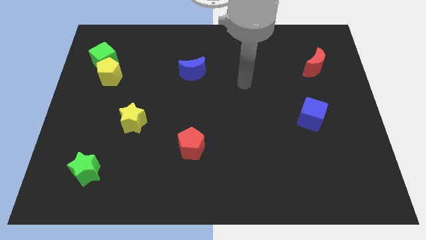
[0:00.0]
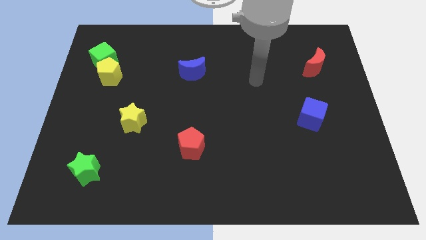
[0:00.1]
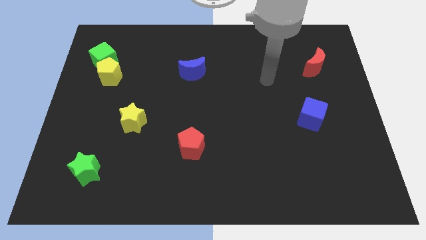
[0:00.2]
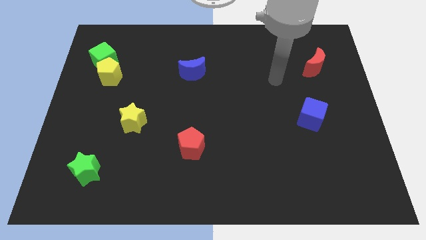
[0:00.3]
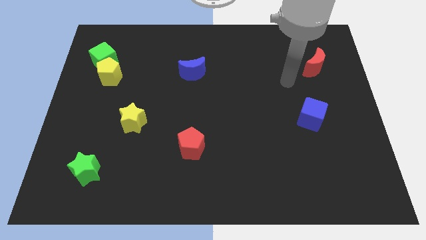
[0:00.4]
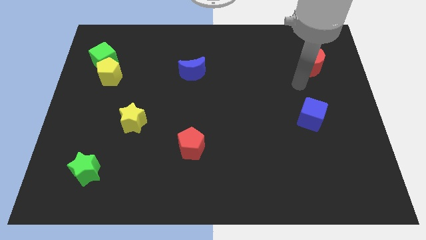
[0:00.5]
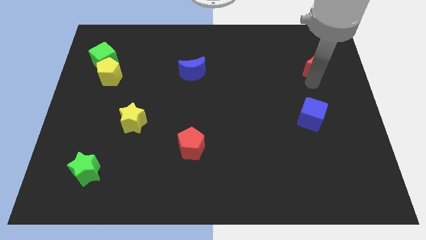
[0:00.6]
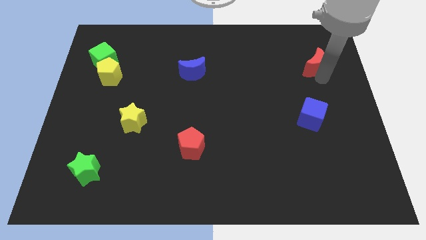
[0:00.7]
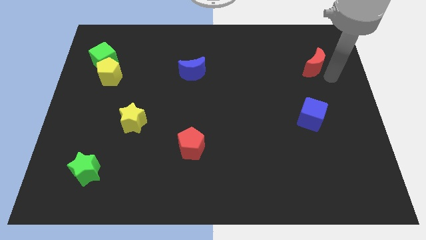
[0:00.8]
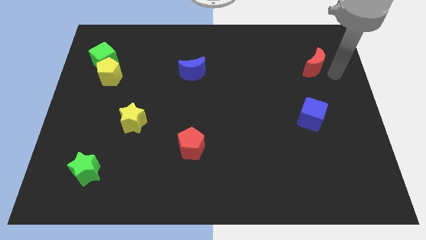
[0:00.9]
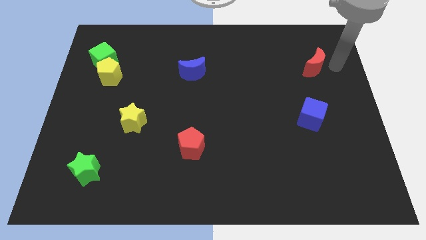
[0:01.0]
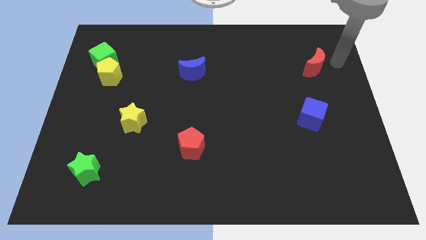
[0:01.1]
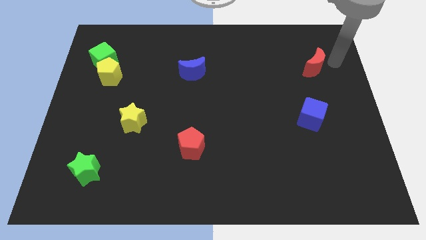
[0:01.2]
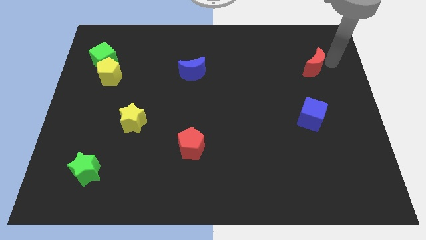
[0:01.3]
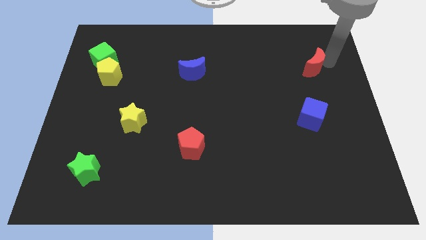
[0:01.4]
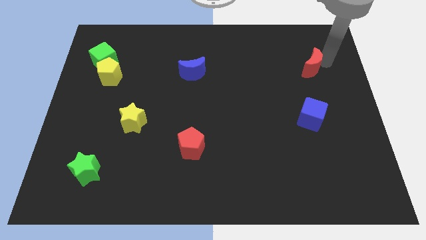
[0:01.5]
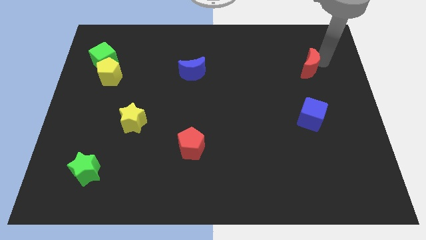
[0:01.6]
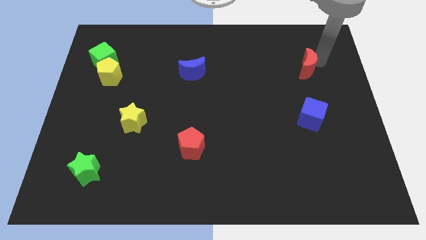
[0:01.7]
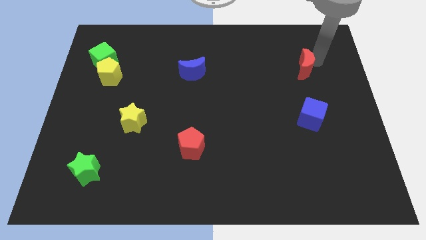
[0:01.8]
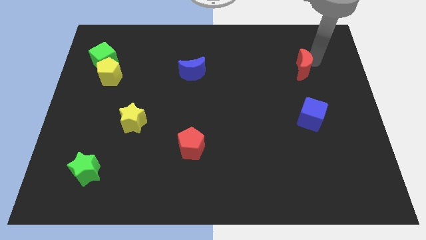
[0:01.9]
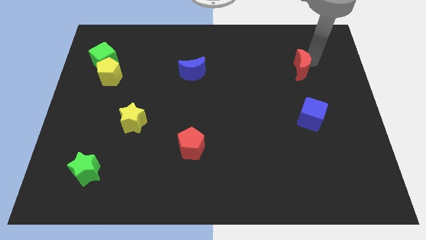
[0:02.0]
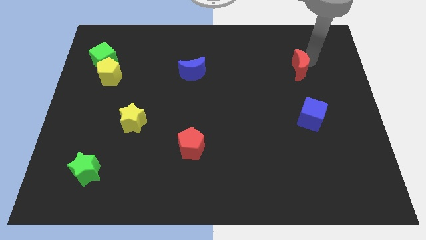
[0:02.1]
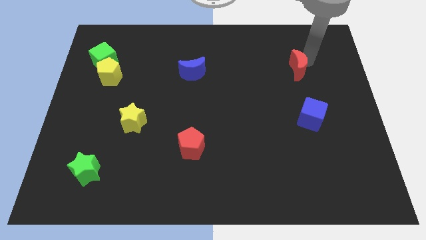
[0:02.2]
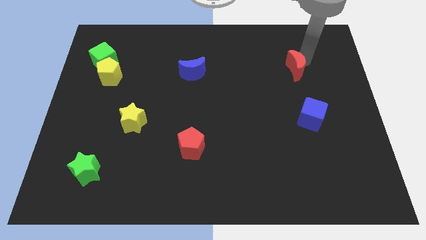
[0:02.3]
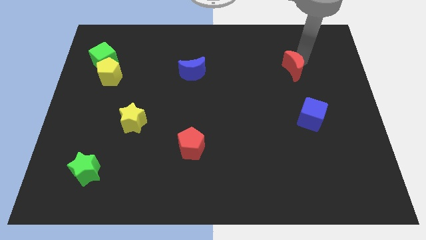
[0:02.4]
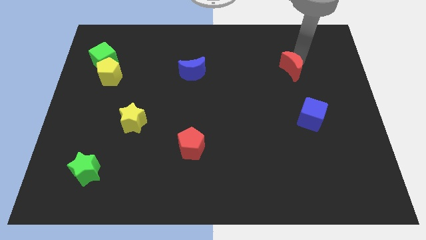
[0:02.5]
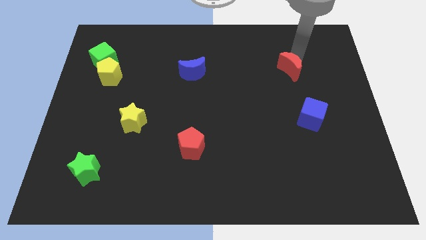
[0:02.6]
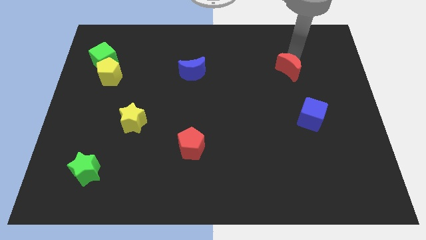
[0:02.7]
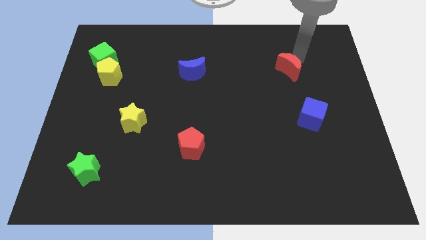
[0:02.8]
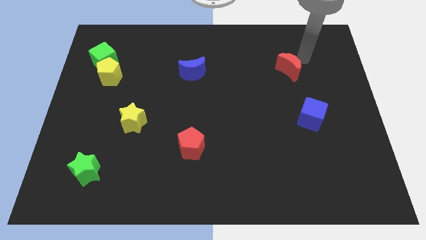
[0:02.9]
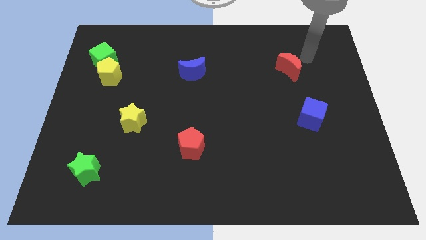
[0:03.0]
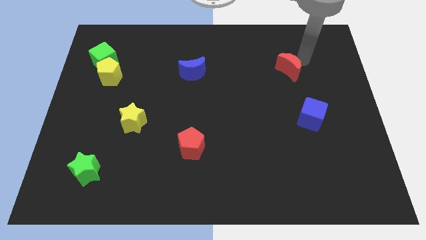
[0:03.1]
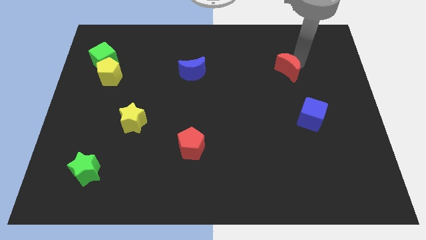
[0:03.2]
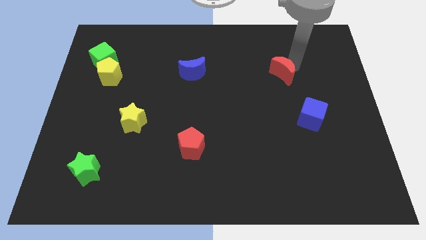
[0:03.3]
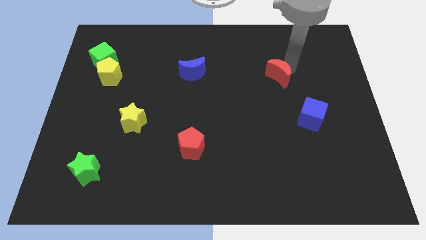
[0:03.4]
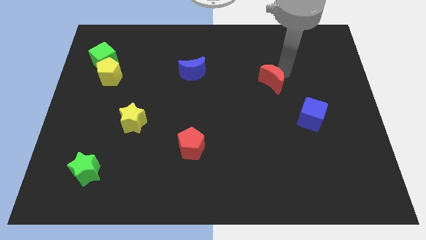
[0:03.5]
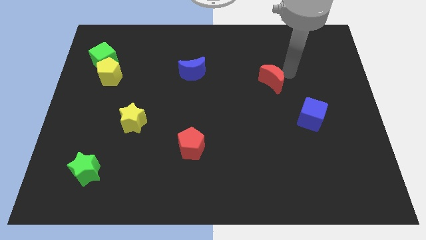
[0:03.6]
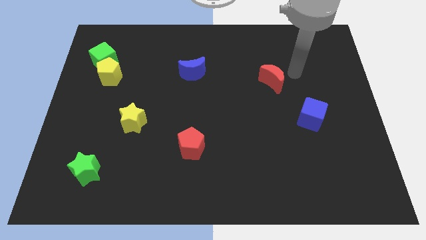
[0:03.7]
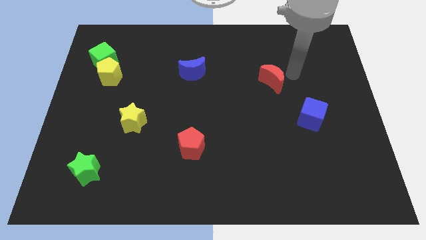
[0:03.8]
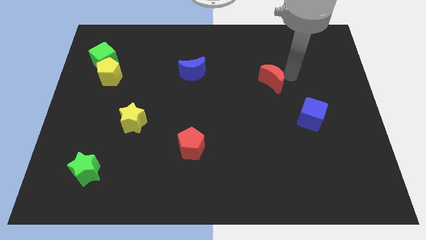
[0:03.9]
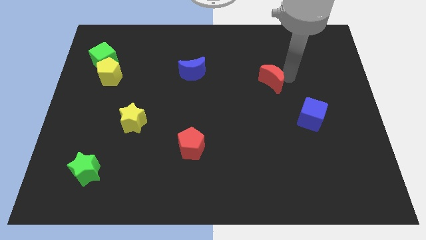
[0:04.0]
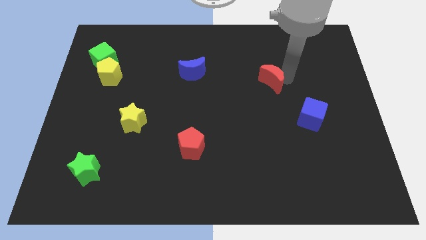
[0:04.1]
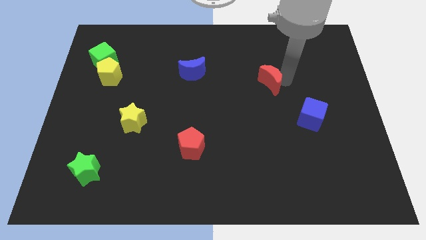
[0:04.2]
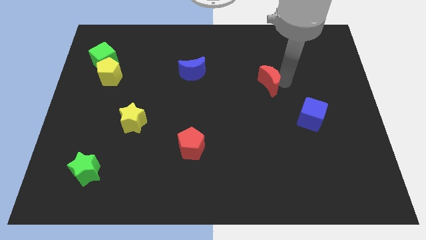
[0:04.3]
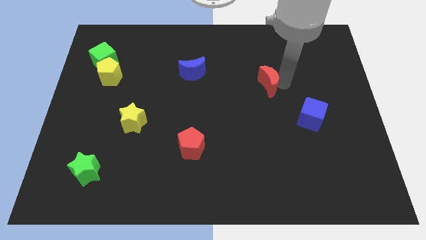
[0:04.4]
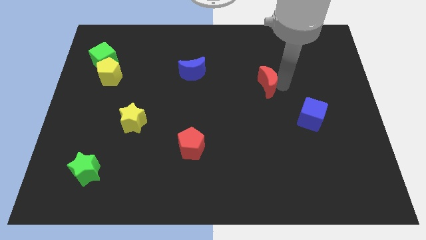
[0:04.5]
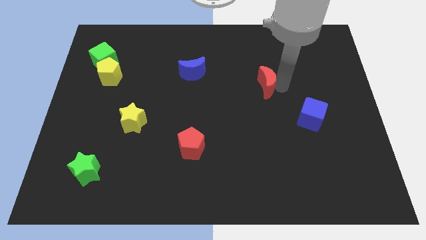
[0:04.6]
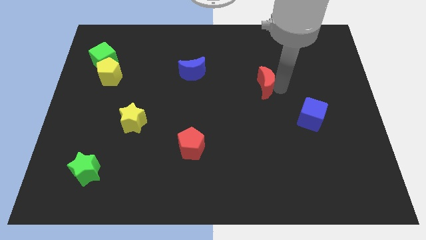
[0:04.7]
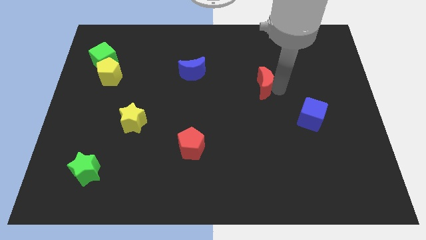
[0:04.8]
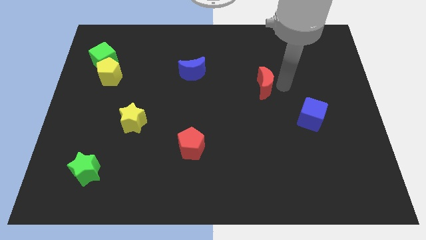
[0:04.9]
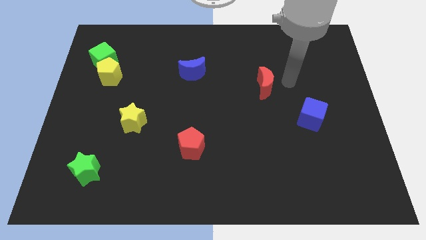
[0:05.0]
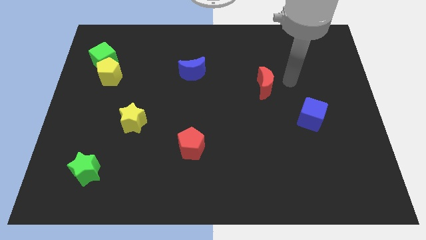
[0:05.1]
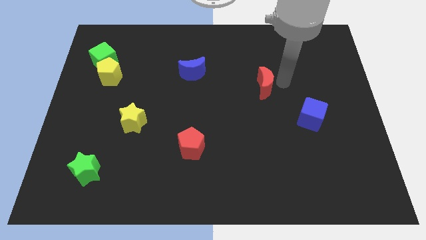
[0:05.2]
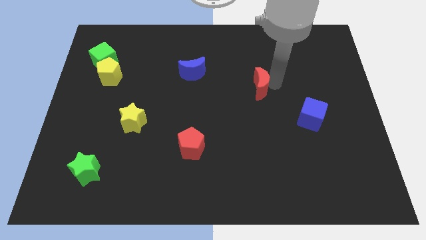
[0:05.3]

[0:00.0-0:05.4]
push the red moon to the middle

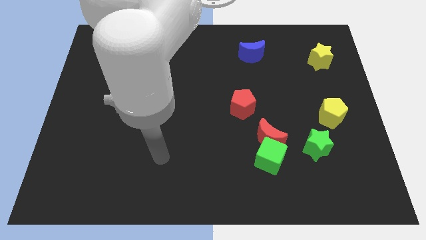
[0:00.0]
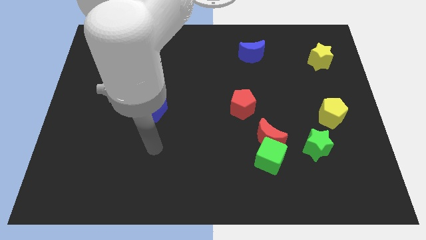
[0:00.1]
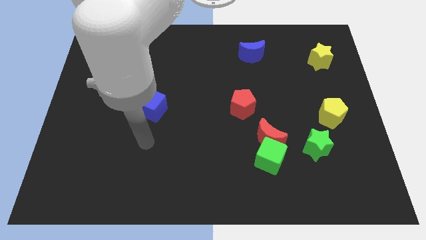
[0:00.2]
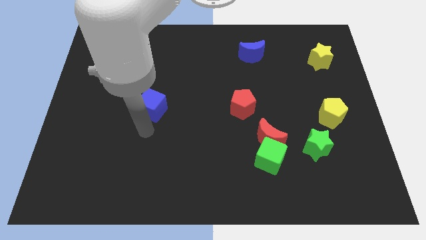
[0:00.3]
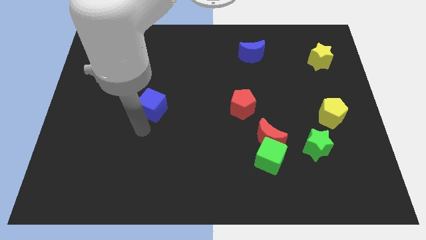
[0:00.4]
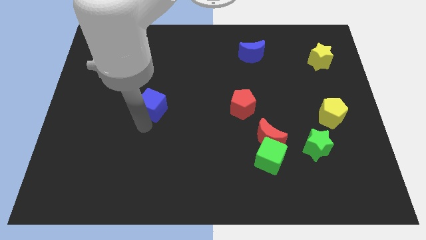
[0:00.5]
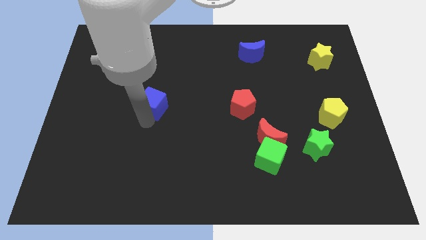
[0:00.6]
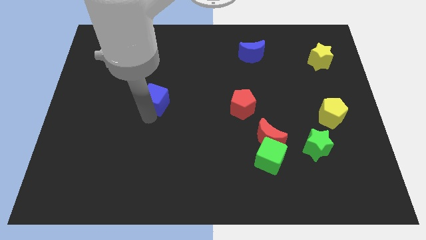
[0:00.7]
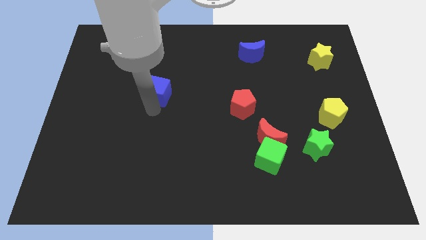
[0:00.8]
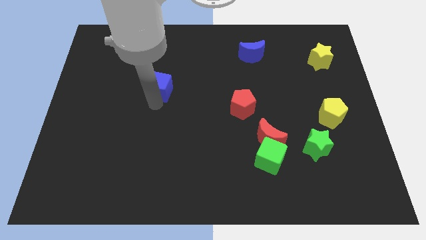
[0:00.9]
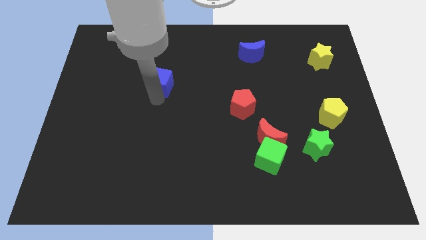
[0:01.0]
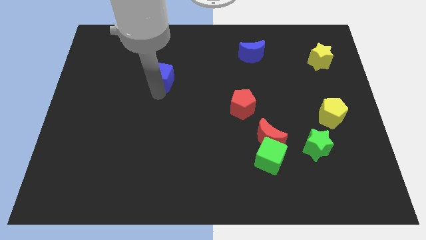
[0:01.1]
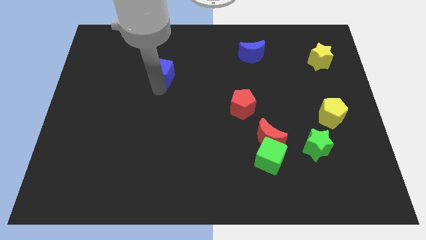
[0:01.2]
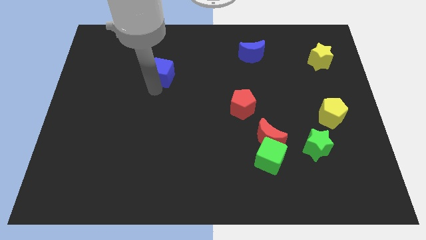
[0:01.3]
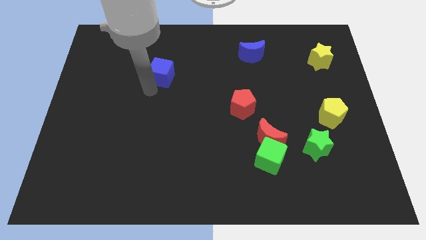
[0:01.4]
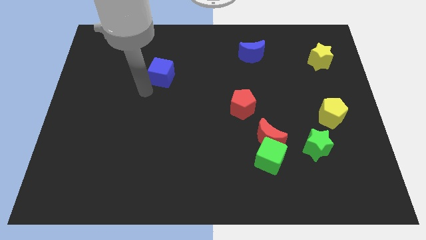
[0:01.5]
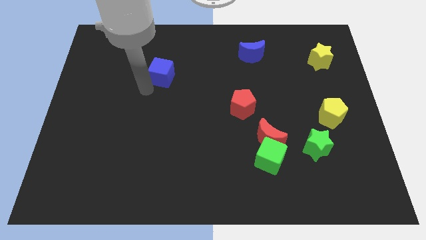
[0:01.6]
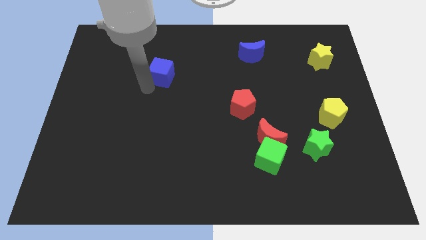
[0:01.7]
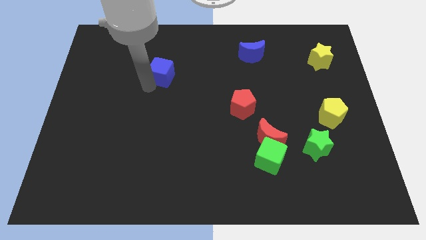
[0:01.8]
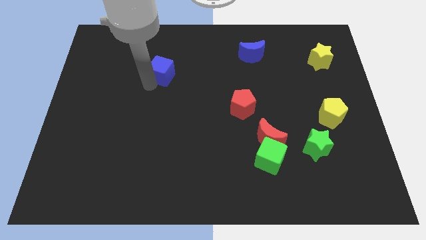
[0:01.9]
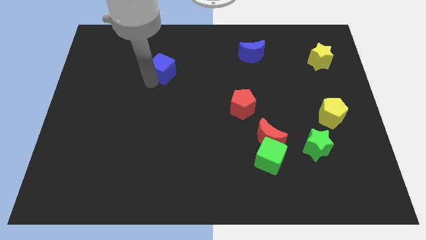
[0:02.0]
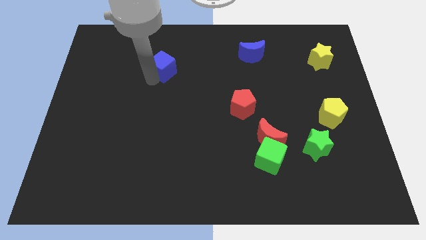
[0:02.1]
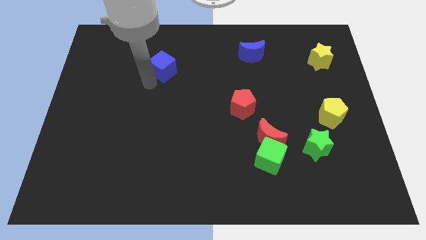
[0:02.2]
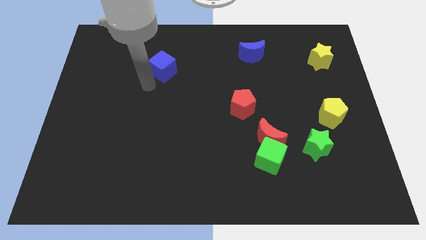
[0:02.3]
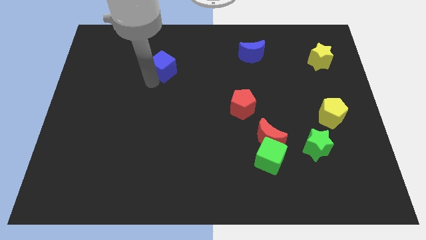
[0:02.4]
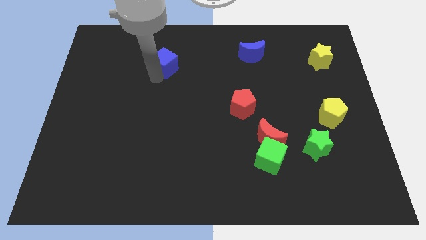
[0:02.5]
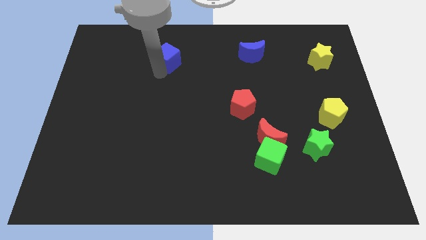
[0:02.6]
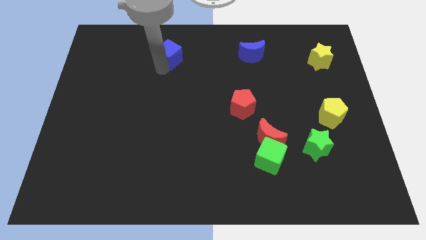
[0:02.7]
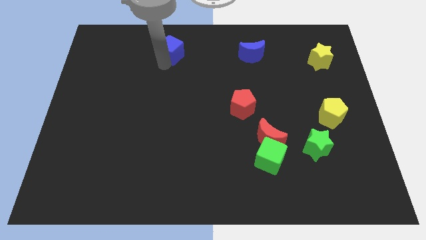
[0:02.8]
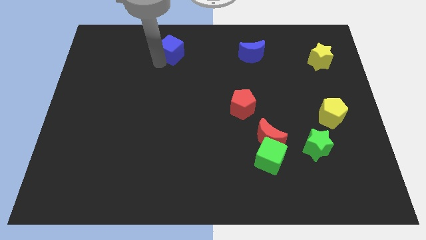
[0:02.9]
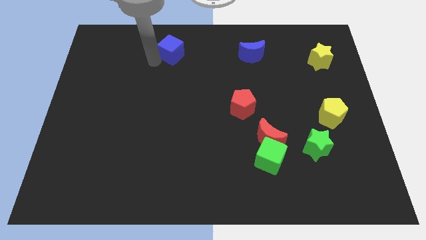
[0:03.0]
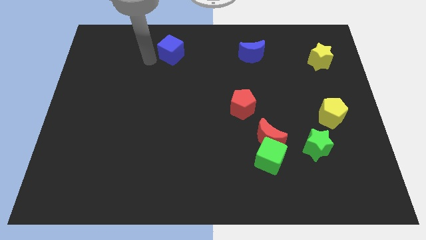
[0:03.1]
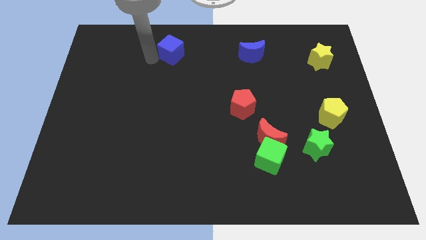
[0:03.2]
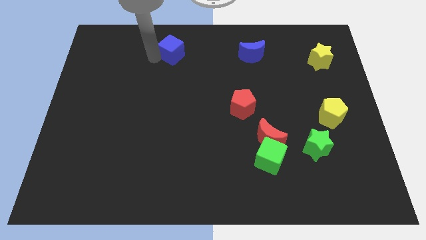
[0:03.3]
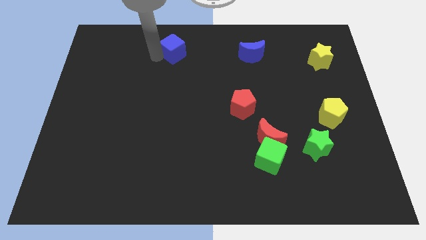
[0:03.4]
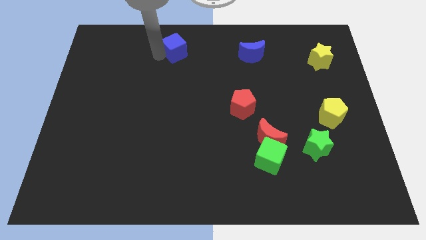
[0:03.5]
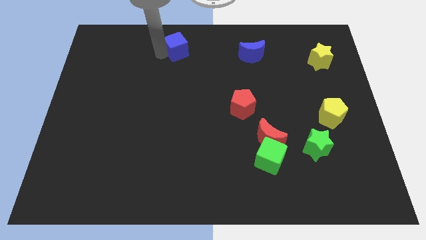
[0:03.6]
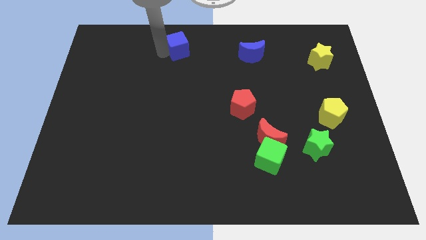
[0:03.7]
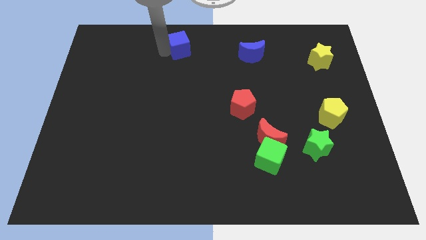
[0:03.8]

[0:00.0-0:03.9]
move the blue cube to the towards your base
